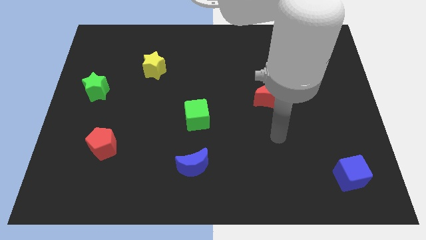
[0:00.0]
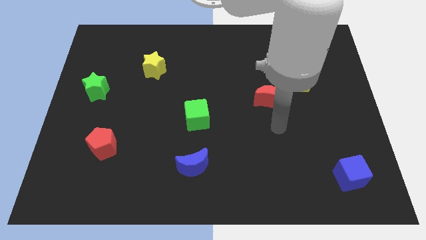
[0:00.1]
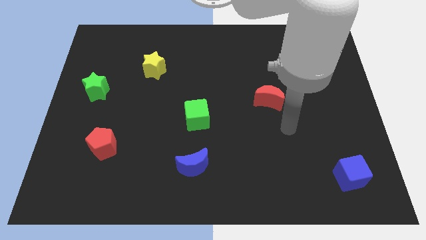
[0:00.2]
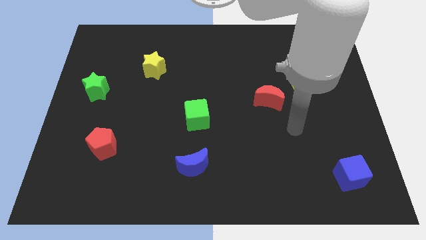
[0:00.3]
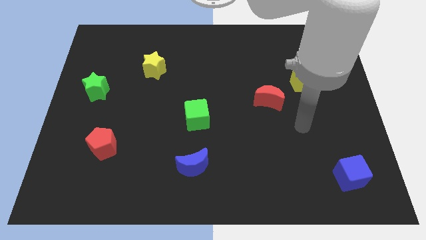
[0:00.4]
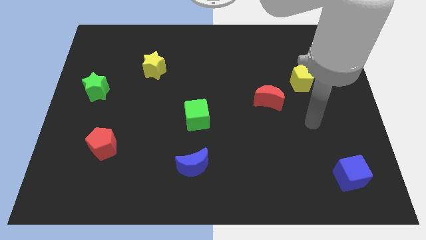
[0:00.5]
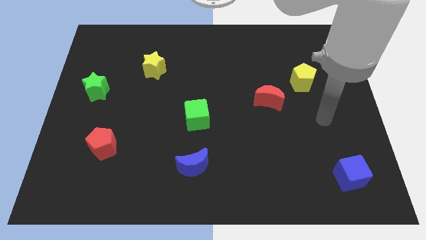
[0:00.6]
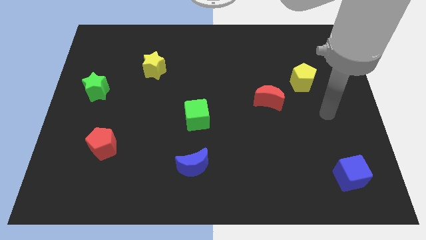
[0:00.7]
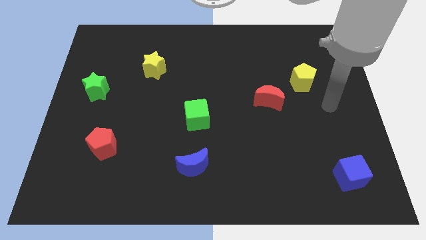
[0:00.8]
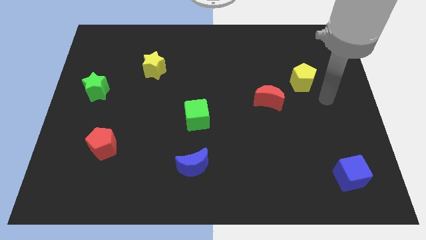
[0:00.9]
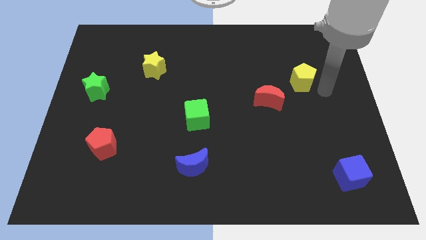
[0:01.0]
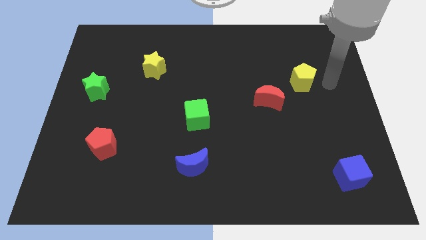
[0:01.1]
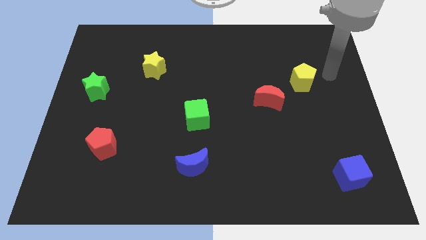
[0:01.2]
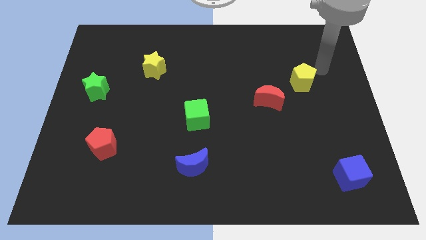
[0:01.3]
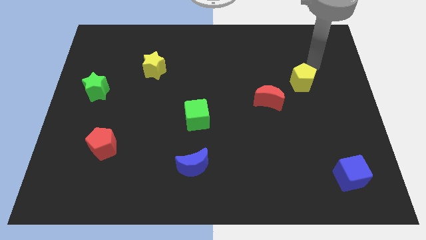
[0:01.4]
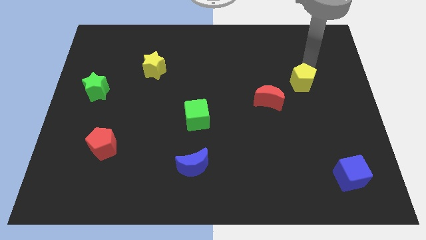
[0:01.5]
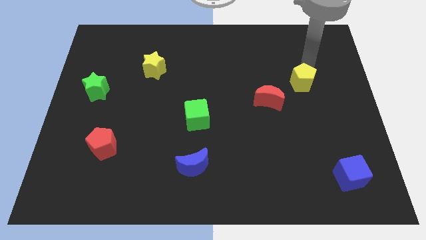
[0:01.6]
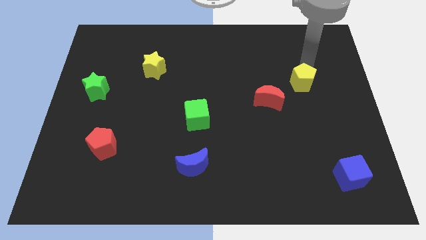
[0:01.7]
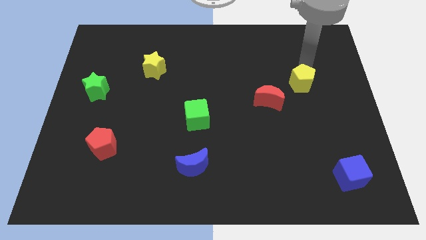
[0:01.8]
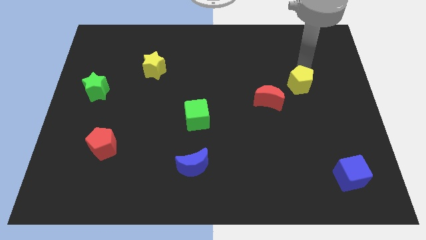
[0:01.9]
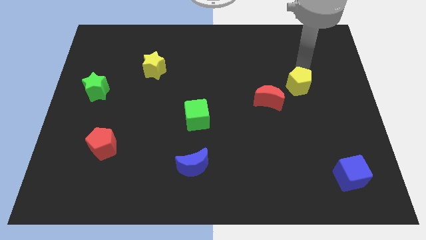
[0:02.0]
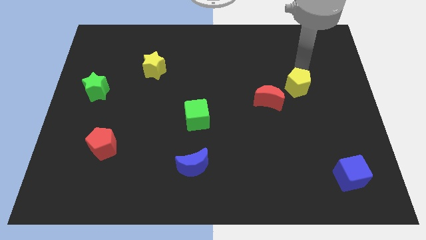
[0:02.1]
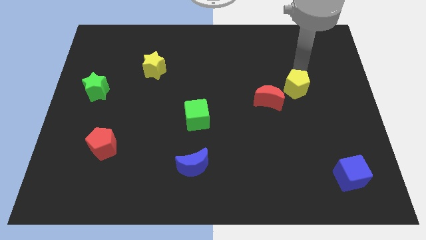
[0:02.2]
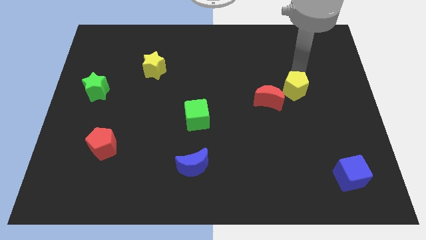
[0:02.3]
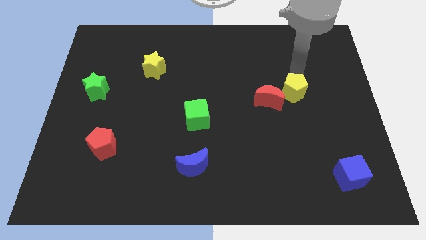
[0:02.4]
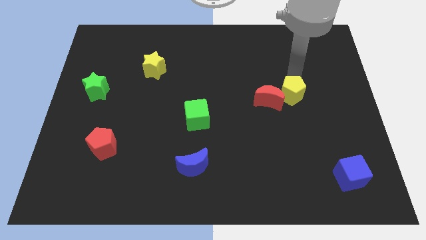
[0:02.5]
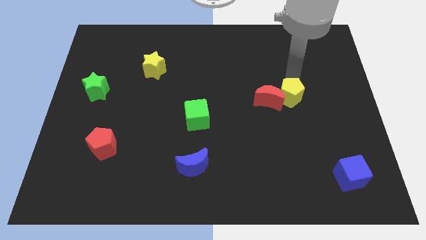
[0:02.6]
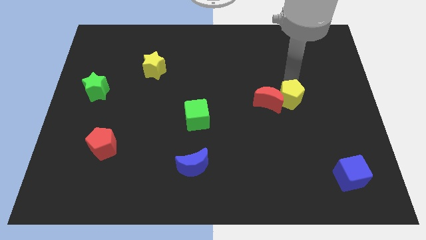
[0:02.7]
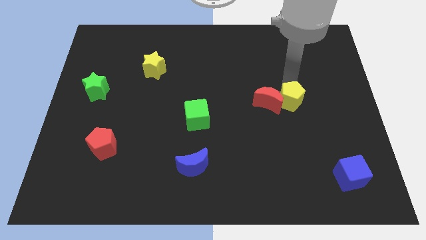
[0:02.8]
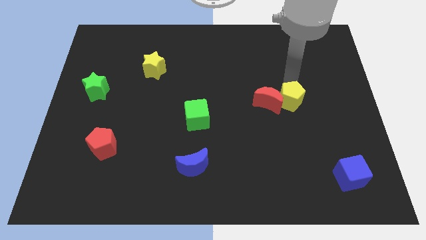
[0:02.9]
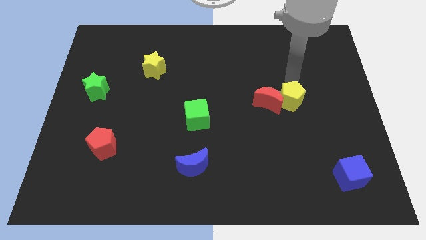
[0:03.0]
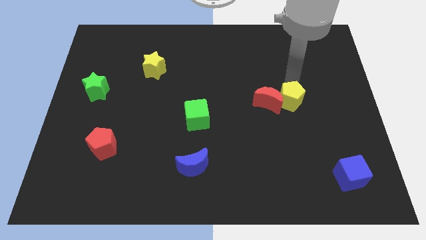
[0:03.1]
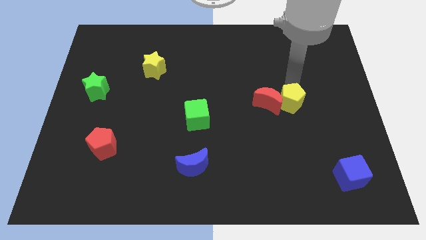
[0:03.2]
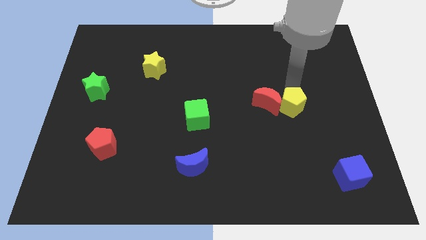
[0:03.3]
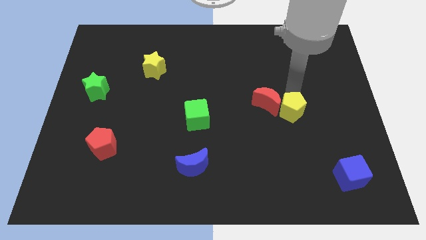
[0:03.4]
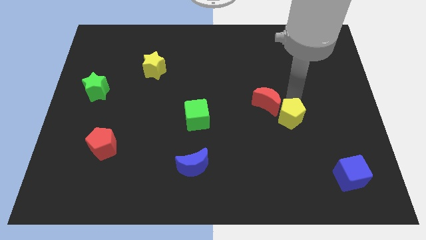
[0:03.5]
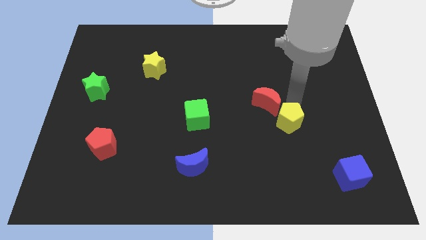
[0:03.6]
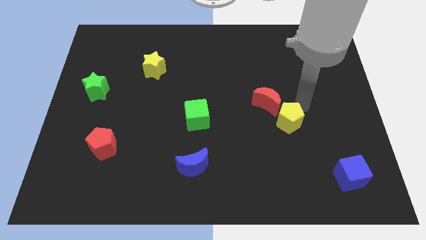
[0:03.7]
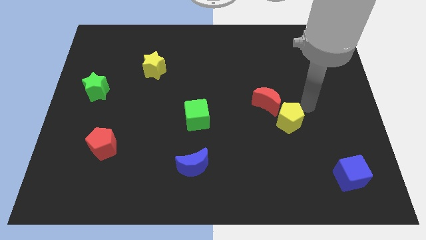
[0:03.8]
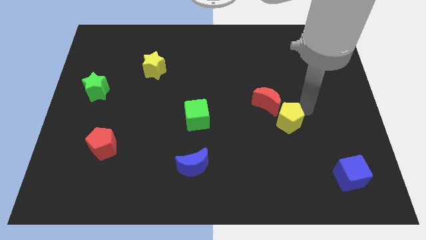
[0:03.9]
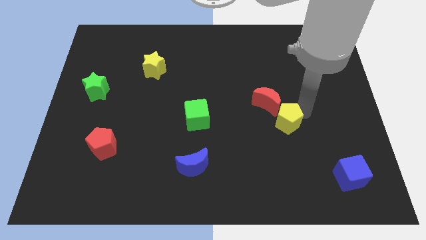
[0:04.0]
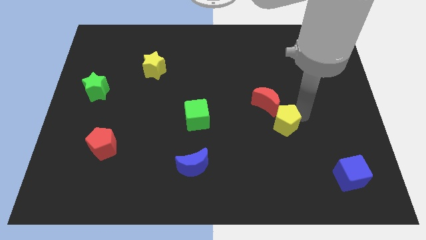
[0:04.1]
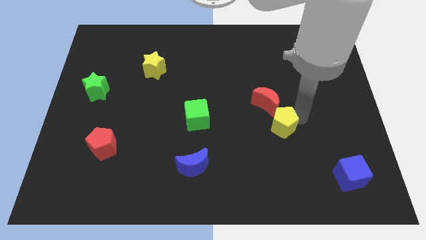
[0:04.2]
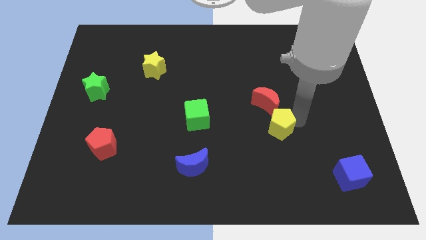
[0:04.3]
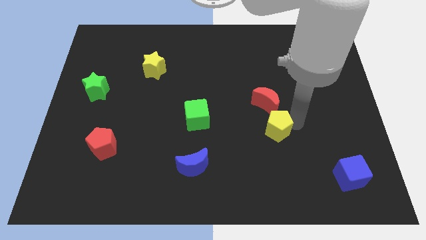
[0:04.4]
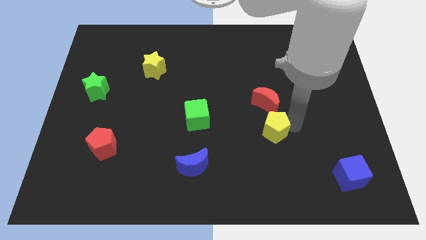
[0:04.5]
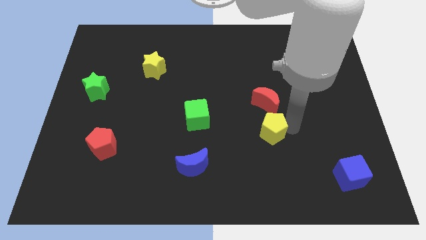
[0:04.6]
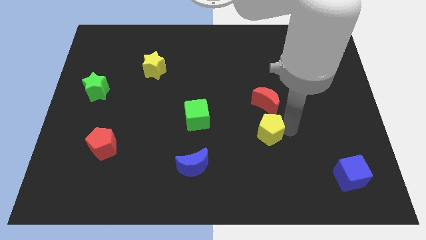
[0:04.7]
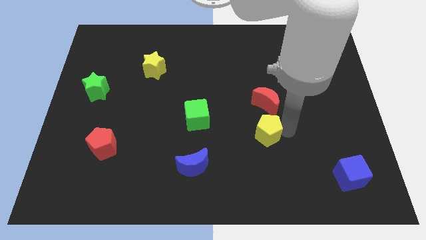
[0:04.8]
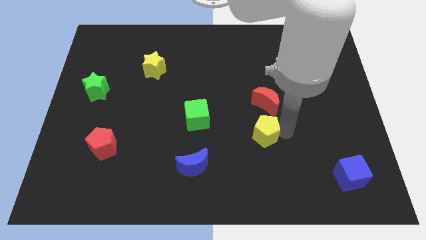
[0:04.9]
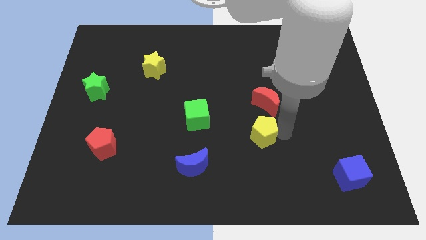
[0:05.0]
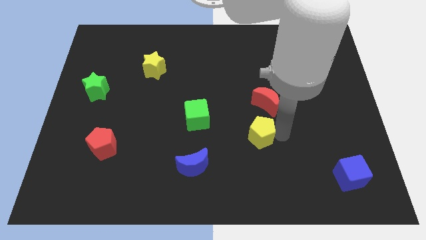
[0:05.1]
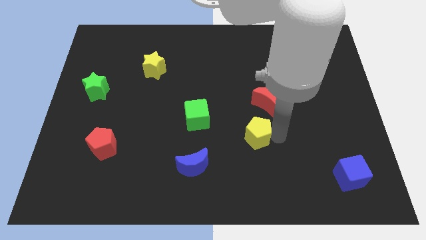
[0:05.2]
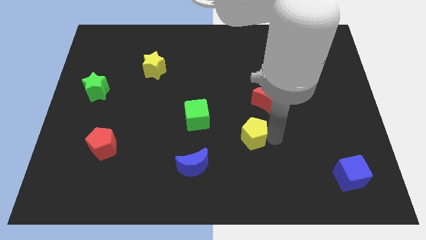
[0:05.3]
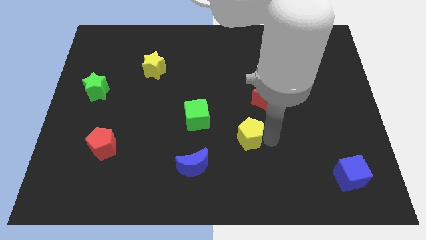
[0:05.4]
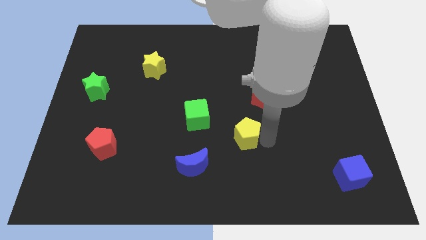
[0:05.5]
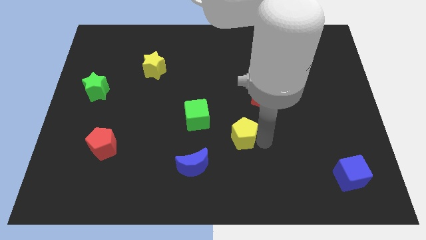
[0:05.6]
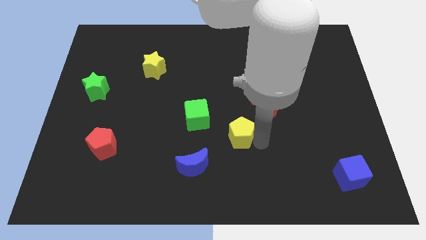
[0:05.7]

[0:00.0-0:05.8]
slide the yellow pentagon to the top right side of the blue moon

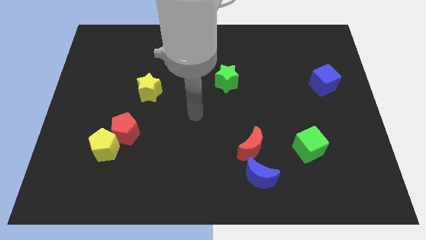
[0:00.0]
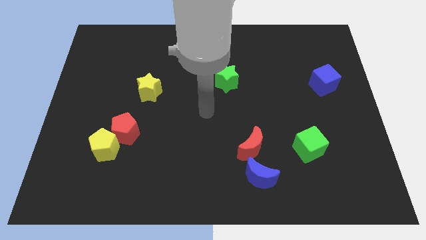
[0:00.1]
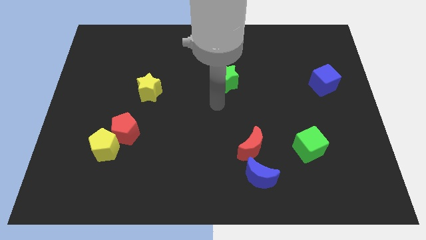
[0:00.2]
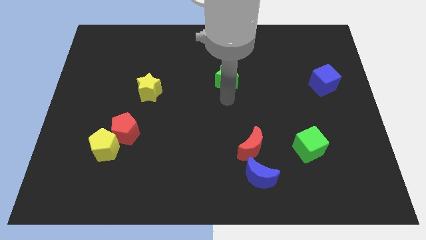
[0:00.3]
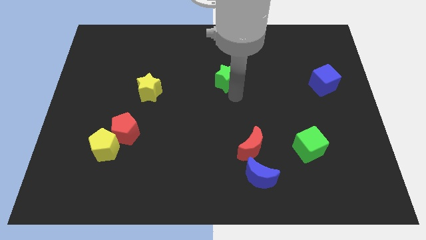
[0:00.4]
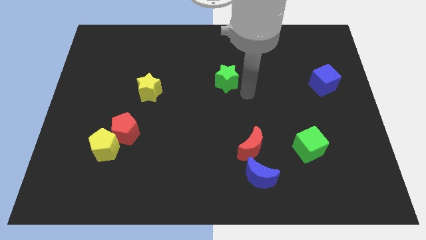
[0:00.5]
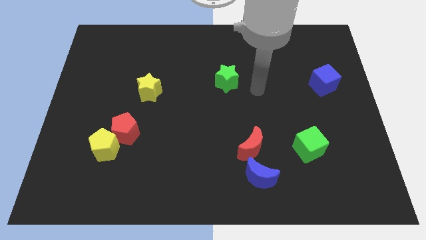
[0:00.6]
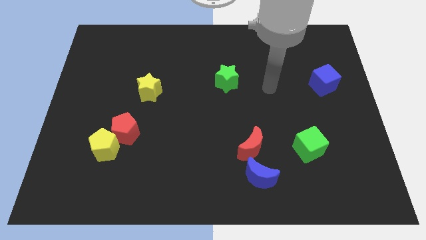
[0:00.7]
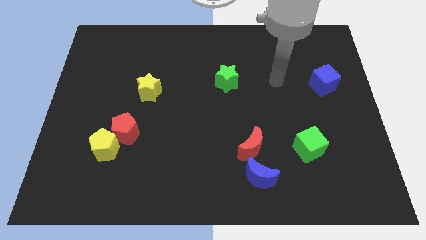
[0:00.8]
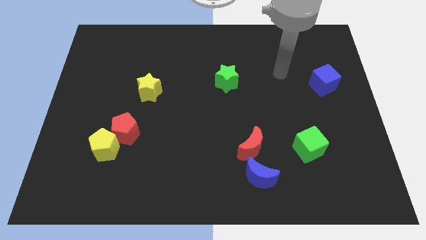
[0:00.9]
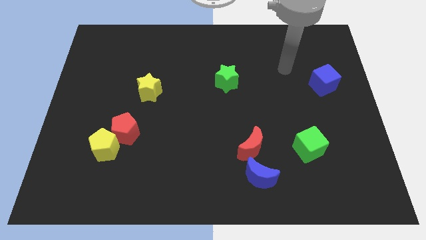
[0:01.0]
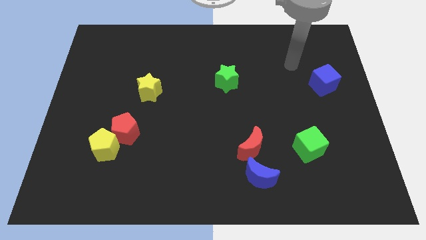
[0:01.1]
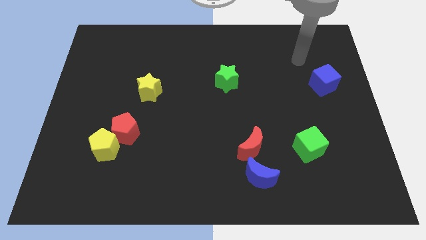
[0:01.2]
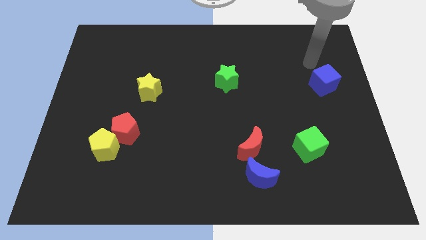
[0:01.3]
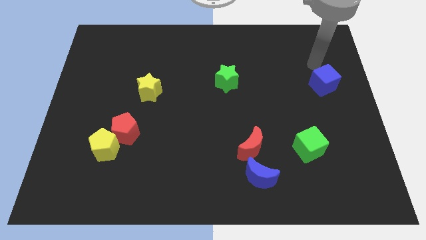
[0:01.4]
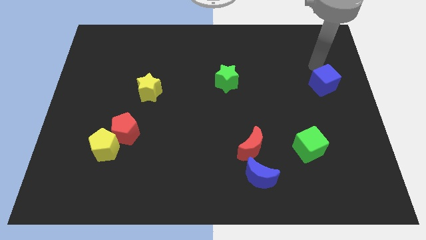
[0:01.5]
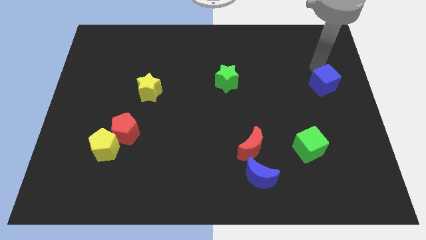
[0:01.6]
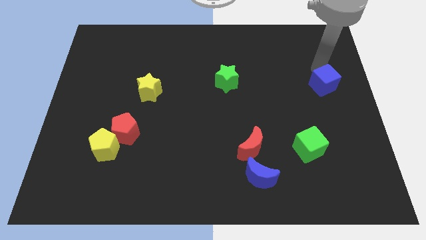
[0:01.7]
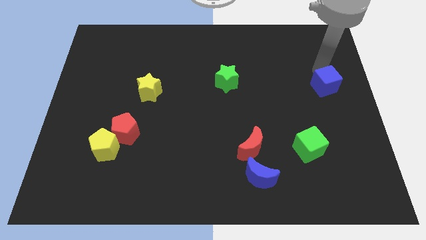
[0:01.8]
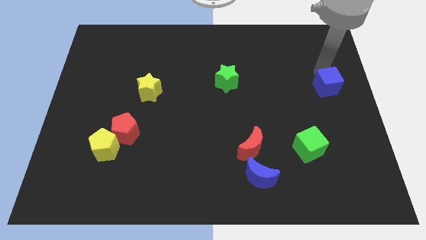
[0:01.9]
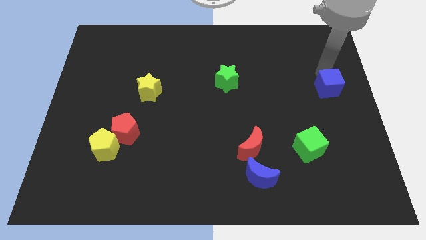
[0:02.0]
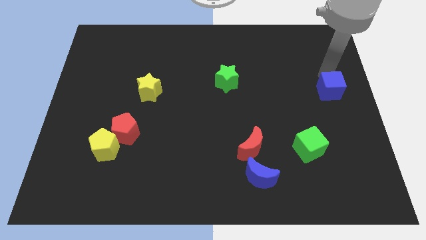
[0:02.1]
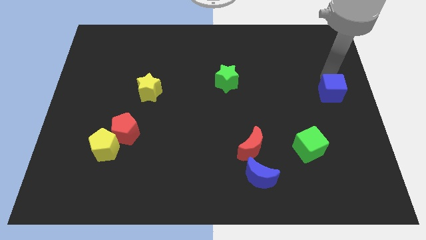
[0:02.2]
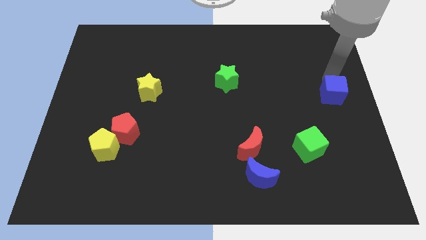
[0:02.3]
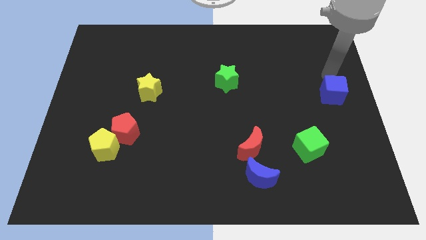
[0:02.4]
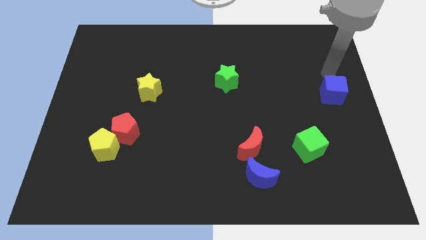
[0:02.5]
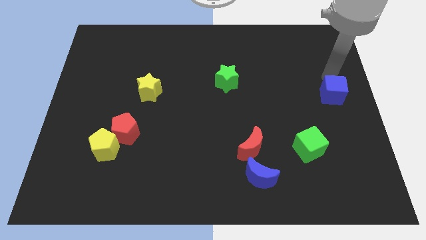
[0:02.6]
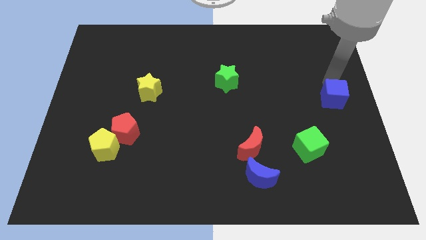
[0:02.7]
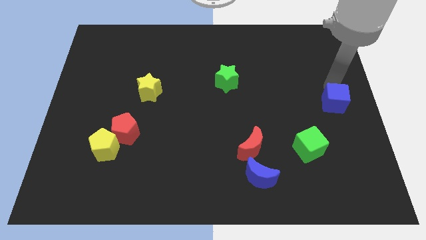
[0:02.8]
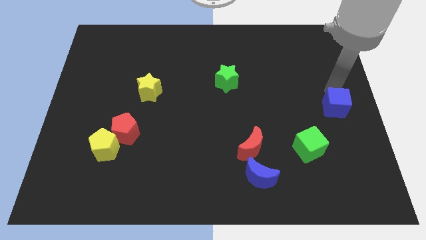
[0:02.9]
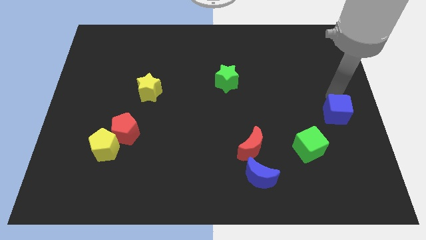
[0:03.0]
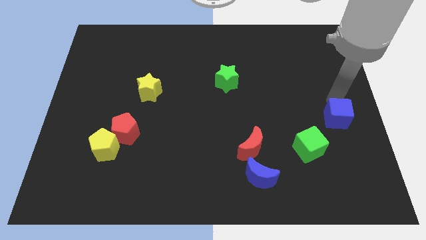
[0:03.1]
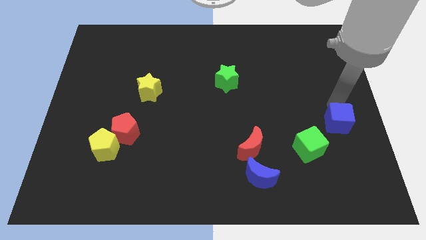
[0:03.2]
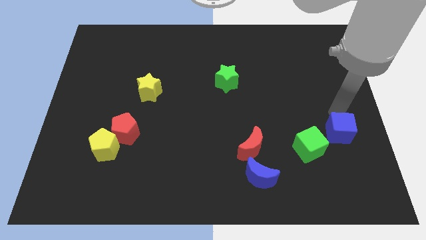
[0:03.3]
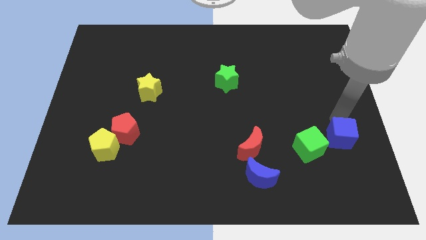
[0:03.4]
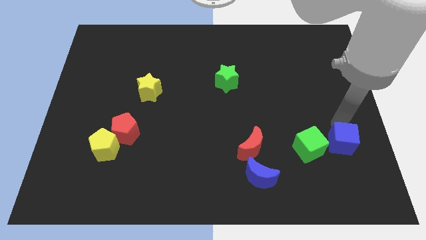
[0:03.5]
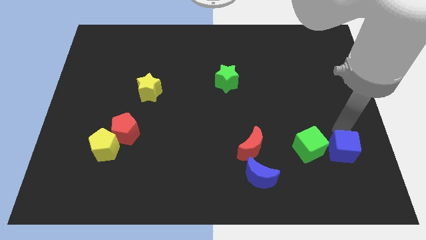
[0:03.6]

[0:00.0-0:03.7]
slide the blue cube to the bottom right of the green cube
